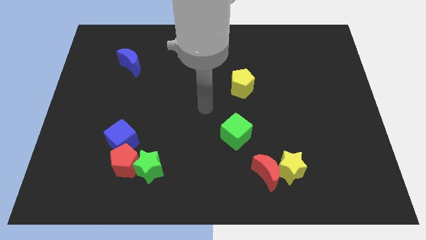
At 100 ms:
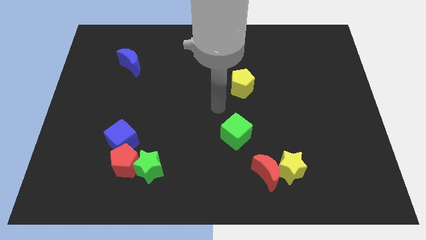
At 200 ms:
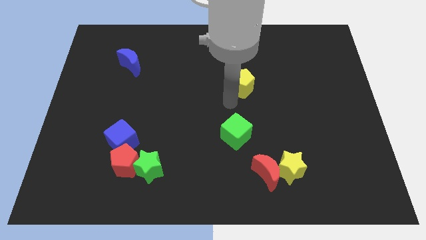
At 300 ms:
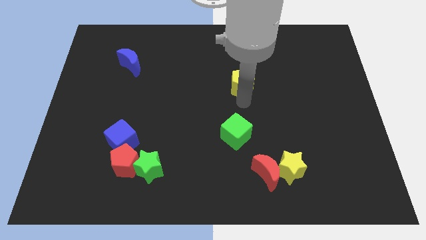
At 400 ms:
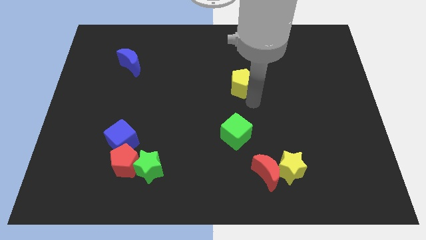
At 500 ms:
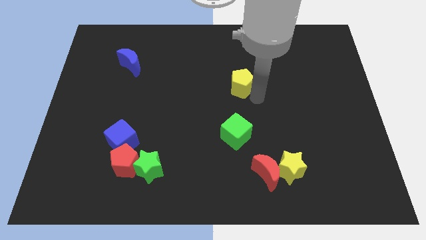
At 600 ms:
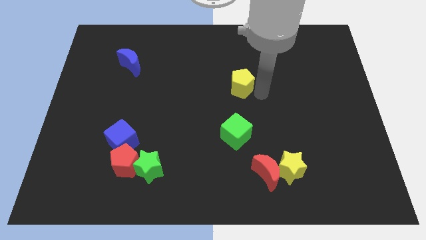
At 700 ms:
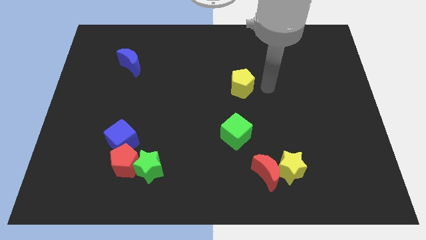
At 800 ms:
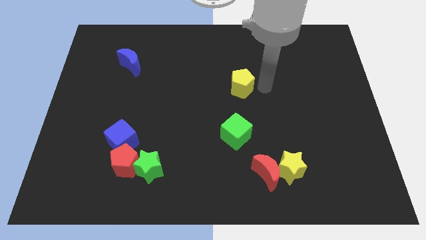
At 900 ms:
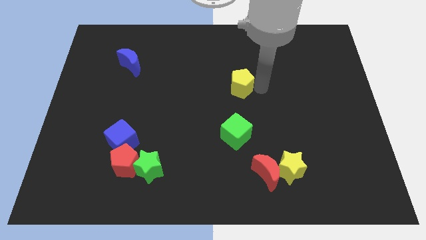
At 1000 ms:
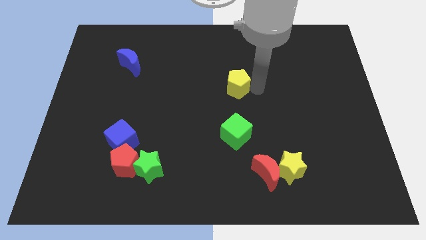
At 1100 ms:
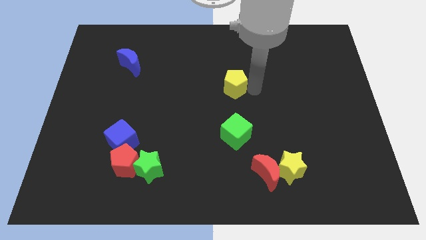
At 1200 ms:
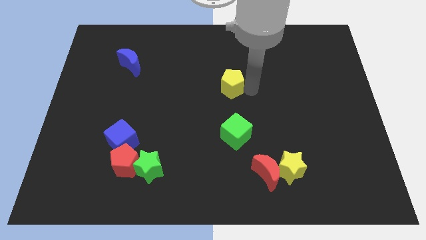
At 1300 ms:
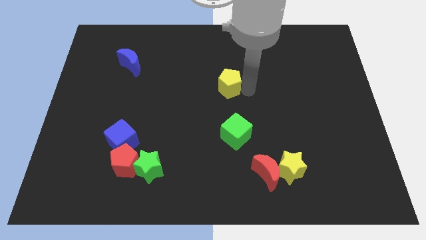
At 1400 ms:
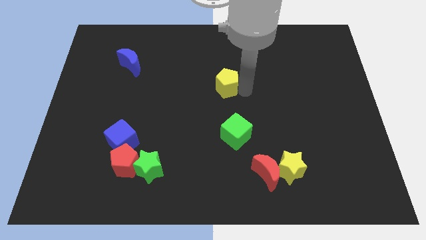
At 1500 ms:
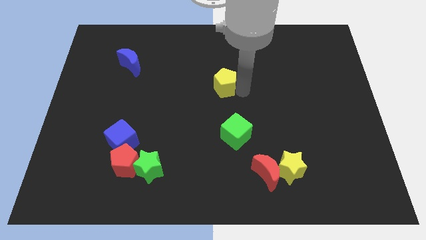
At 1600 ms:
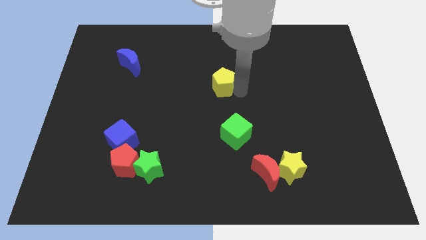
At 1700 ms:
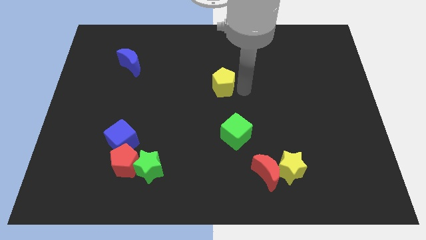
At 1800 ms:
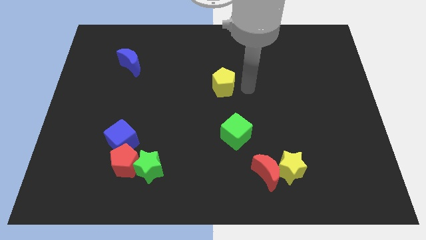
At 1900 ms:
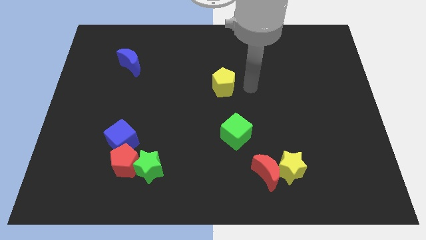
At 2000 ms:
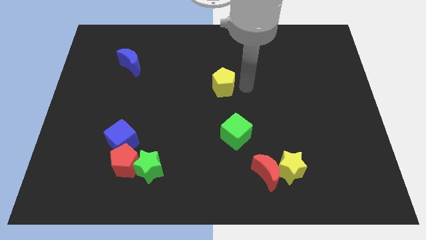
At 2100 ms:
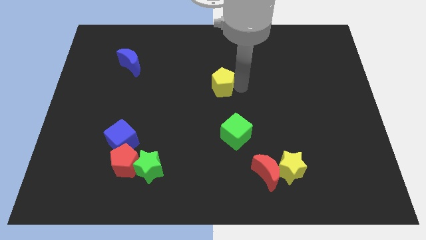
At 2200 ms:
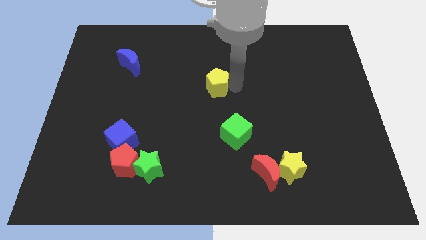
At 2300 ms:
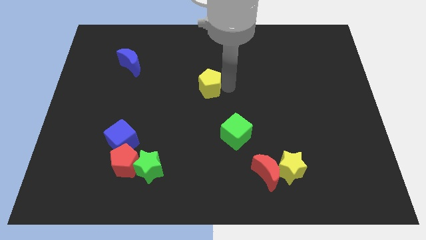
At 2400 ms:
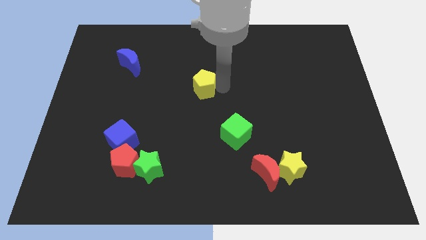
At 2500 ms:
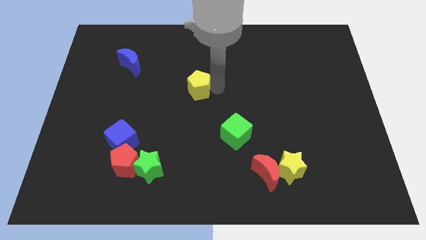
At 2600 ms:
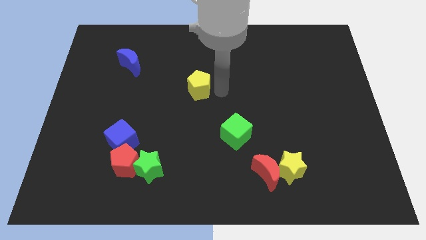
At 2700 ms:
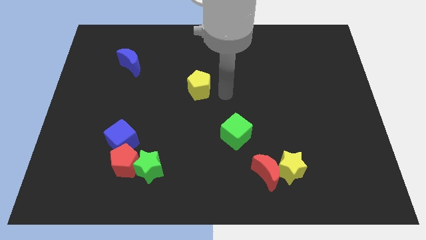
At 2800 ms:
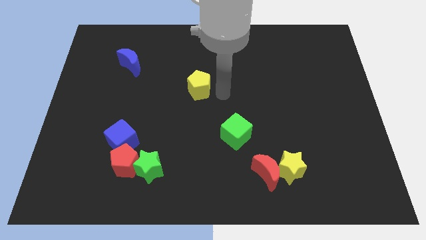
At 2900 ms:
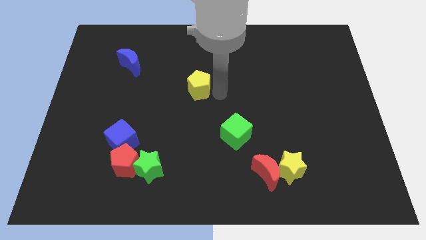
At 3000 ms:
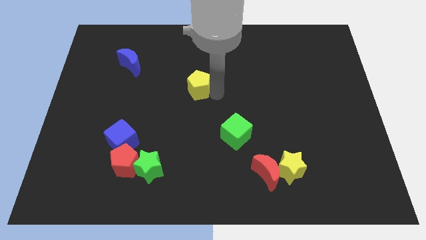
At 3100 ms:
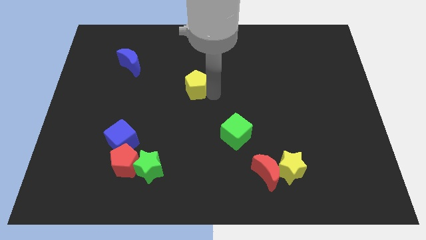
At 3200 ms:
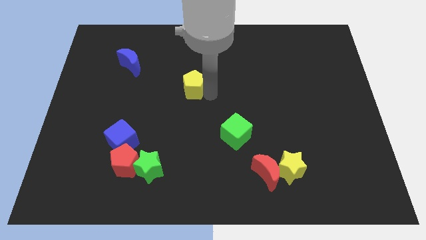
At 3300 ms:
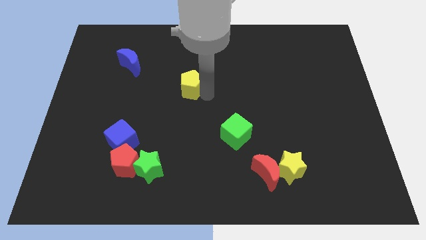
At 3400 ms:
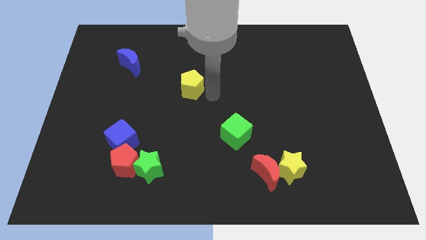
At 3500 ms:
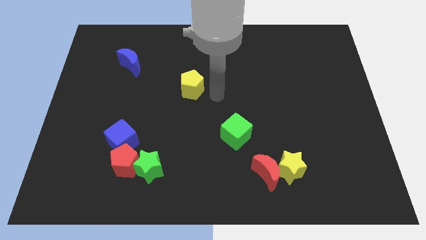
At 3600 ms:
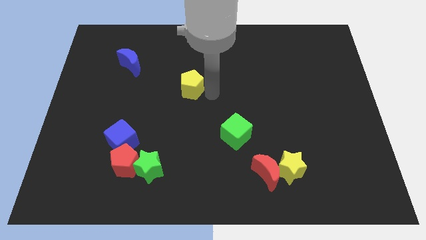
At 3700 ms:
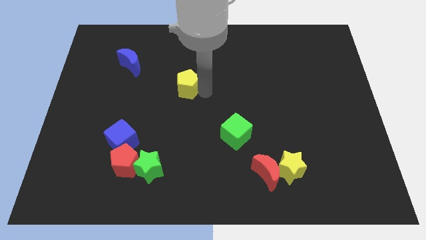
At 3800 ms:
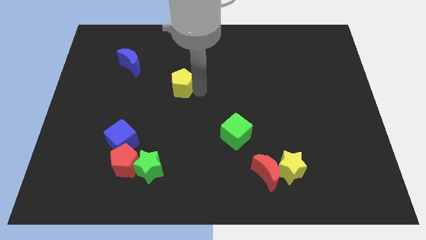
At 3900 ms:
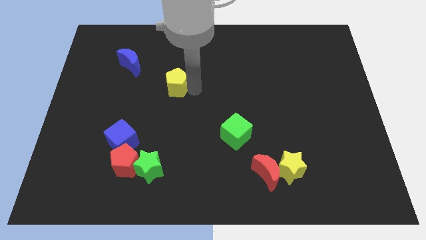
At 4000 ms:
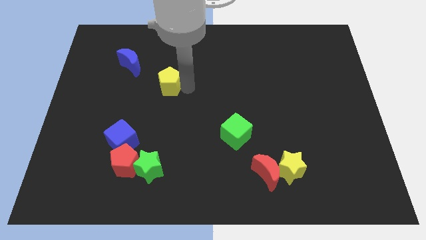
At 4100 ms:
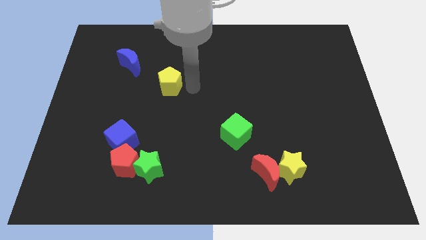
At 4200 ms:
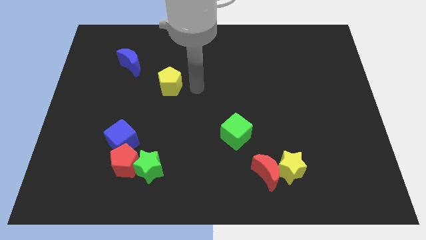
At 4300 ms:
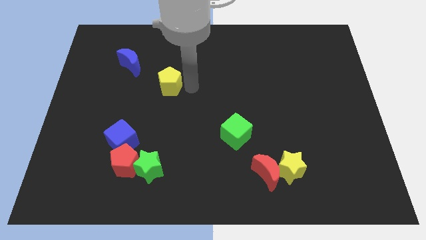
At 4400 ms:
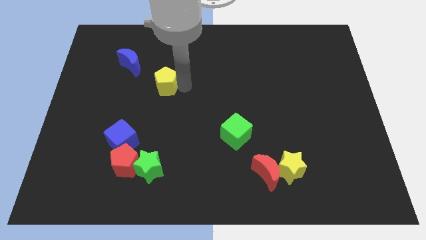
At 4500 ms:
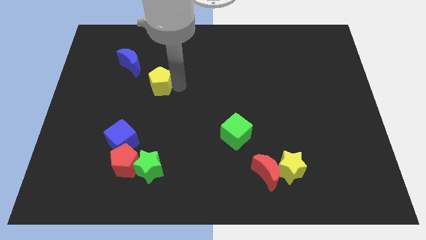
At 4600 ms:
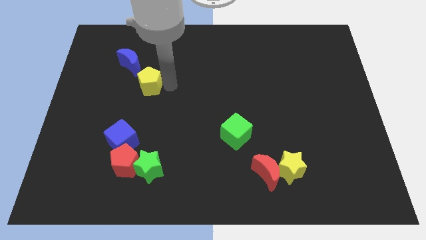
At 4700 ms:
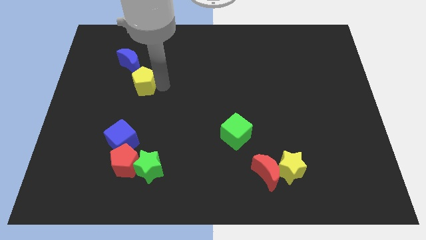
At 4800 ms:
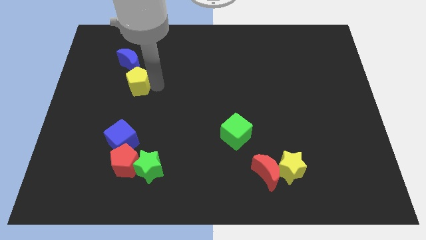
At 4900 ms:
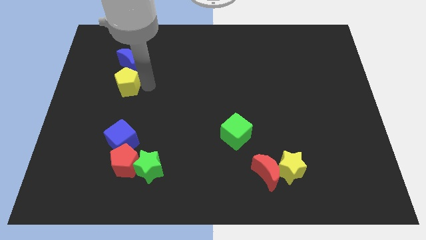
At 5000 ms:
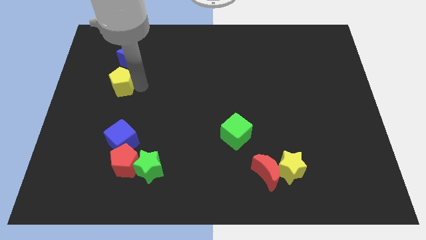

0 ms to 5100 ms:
push the yellow pentagon diagonally down and to the left of the blue moon

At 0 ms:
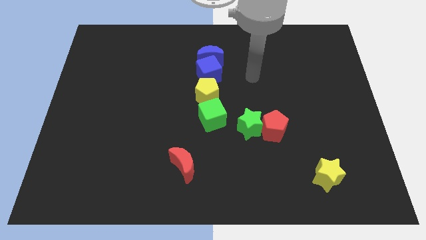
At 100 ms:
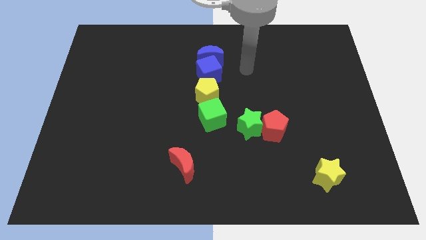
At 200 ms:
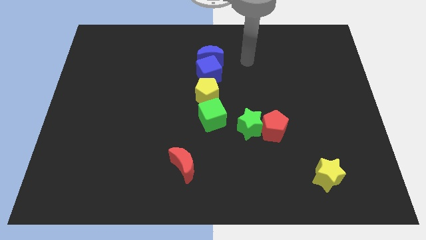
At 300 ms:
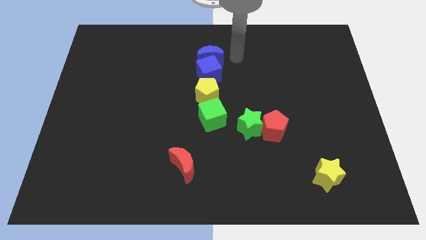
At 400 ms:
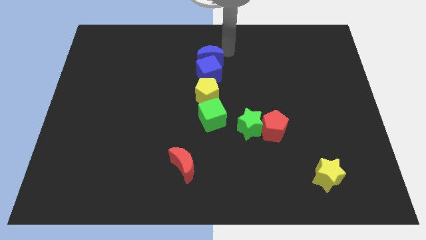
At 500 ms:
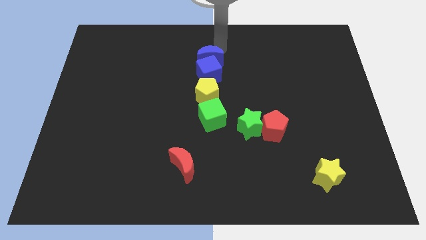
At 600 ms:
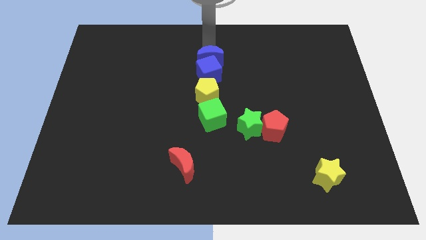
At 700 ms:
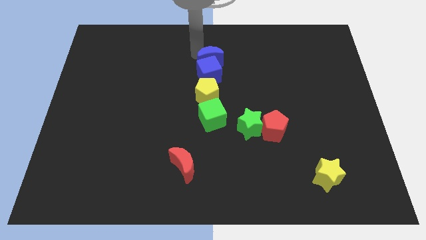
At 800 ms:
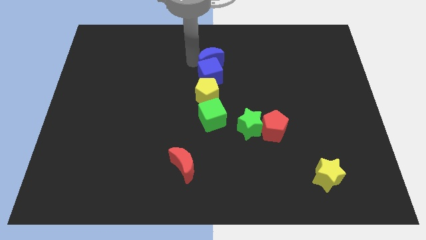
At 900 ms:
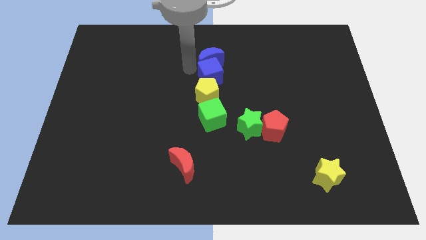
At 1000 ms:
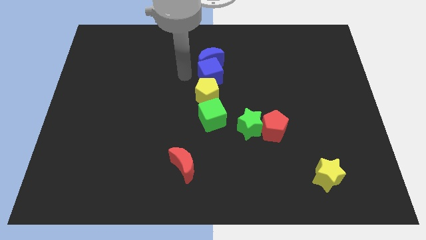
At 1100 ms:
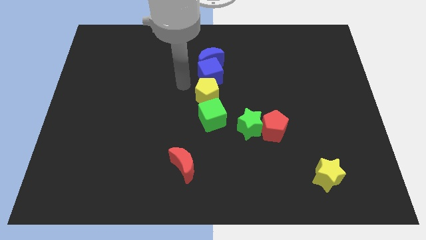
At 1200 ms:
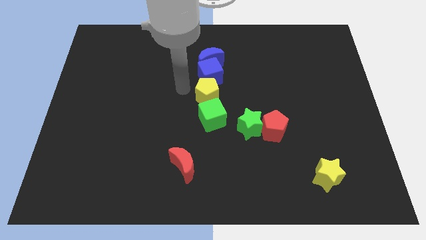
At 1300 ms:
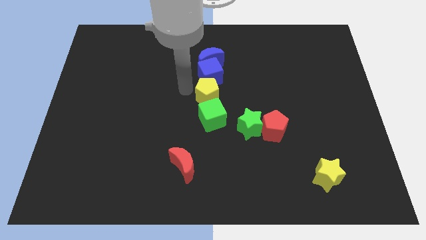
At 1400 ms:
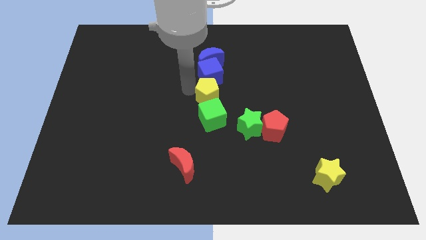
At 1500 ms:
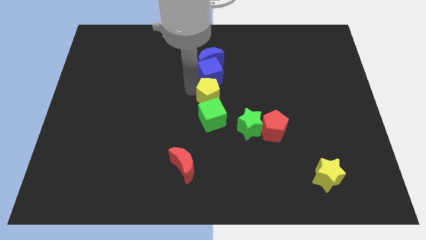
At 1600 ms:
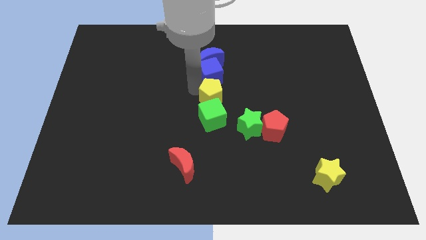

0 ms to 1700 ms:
put the yellow pentagon to the top right side of the green cube

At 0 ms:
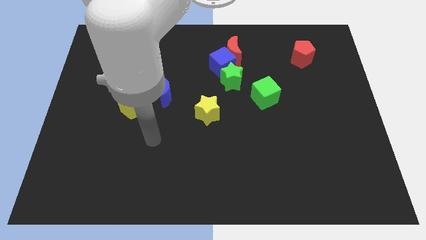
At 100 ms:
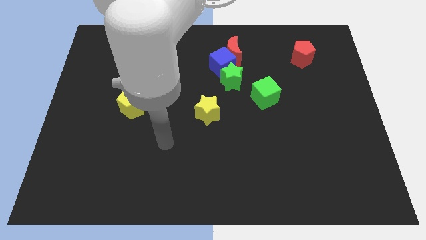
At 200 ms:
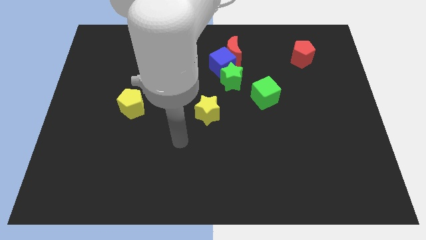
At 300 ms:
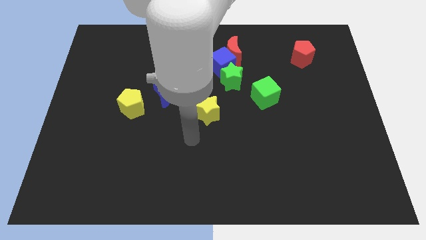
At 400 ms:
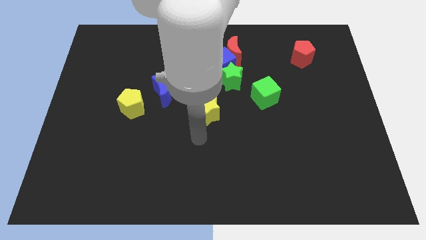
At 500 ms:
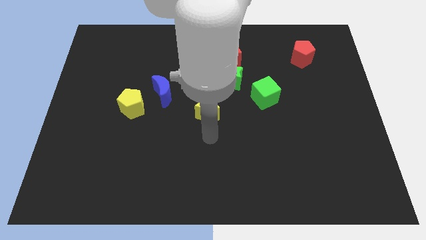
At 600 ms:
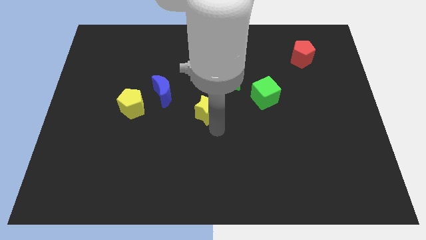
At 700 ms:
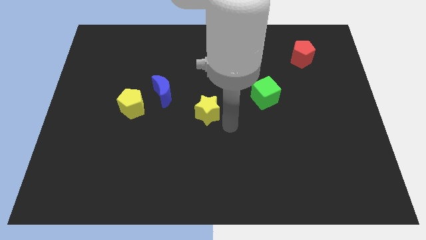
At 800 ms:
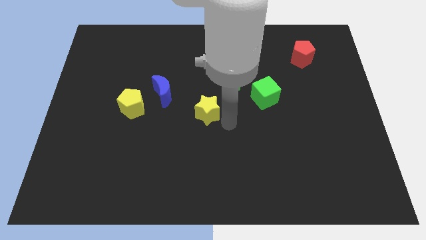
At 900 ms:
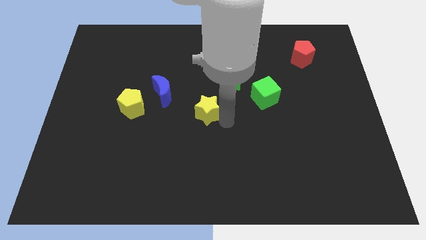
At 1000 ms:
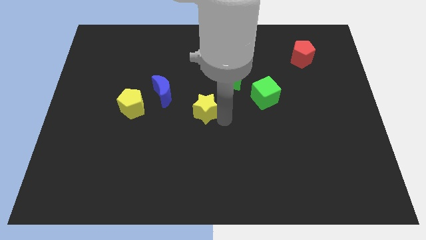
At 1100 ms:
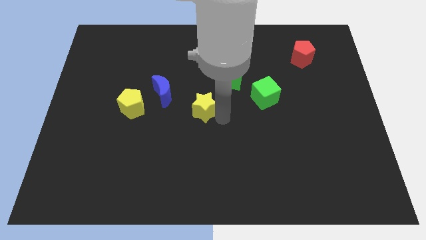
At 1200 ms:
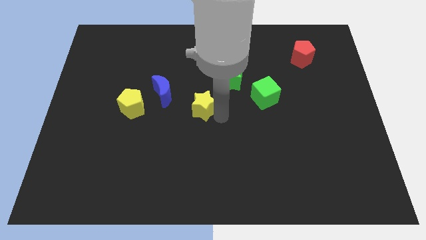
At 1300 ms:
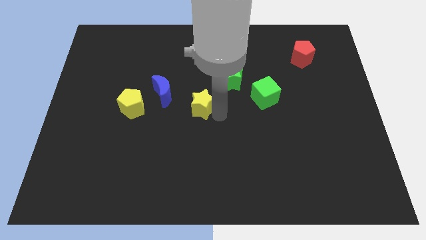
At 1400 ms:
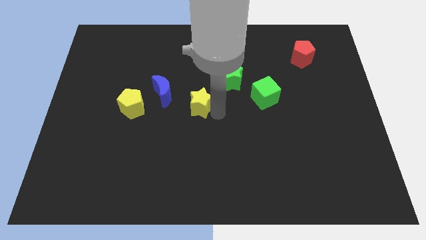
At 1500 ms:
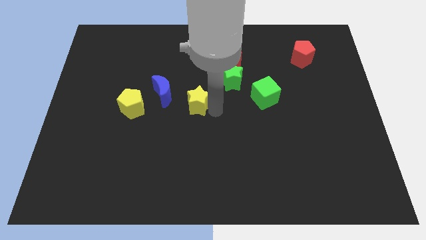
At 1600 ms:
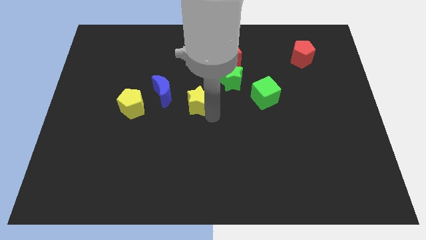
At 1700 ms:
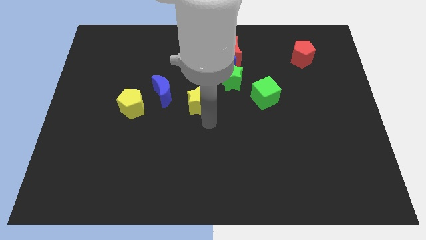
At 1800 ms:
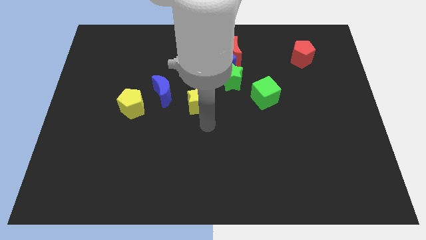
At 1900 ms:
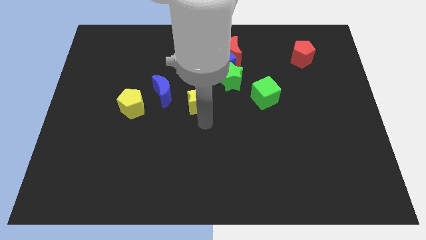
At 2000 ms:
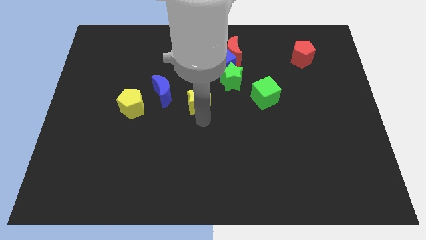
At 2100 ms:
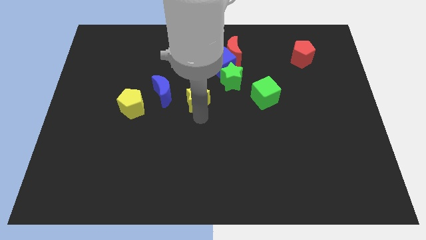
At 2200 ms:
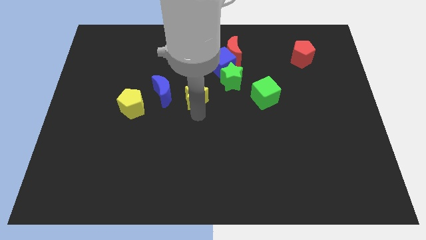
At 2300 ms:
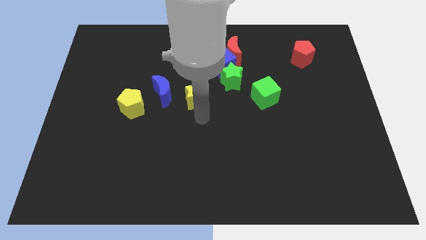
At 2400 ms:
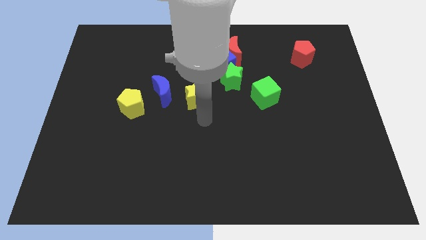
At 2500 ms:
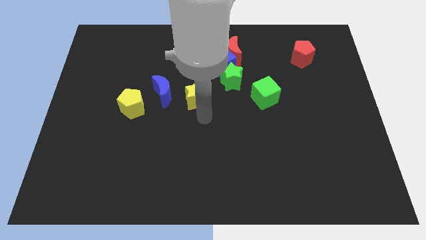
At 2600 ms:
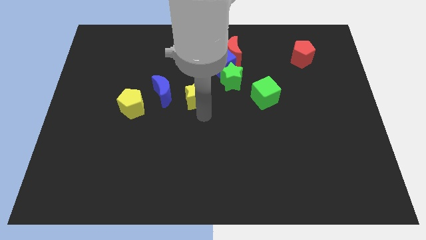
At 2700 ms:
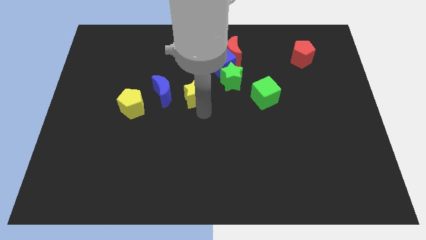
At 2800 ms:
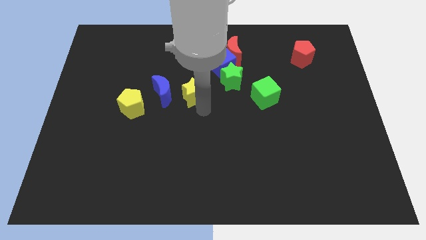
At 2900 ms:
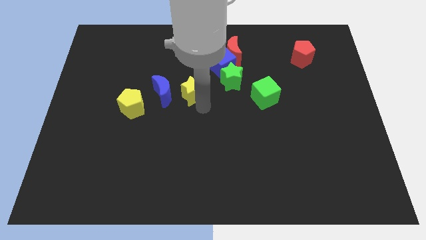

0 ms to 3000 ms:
push the yellow star to the top right of the blue moon
